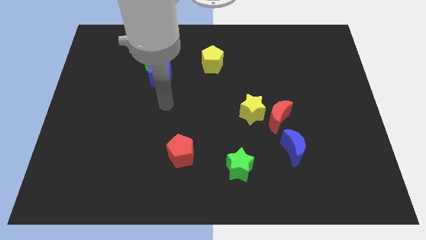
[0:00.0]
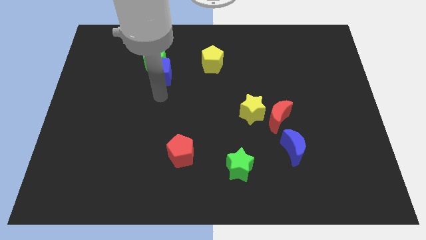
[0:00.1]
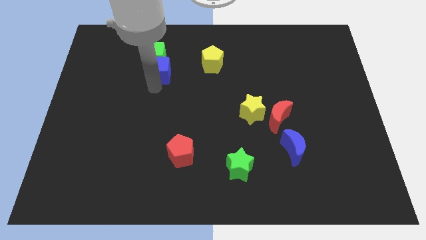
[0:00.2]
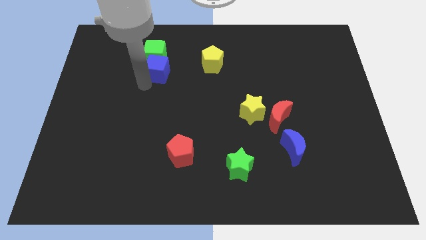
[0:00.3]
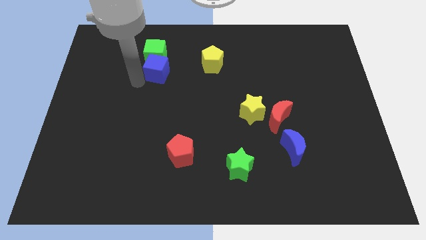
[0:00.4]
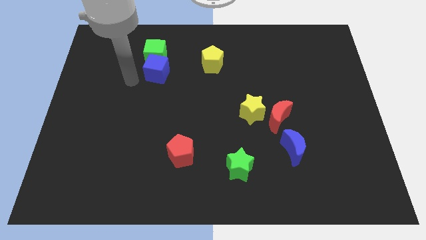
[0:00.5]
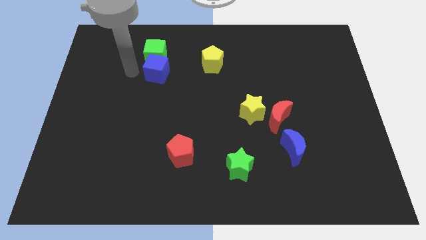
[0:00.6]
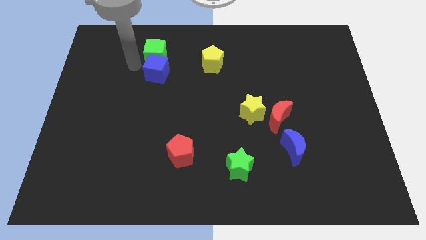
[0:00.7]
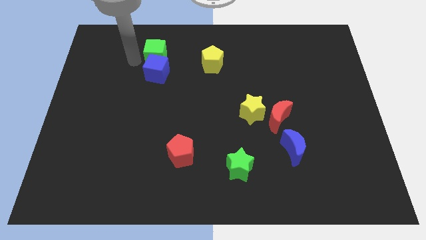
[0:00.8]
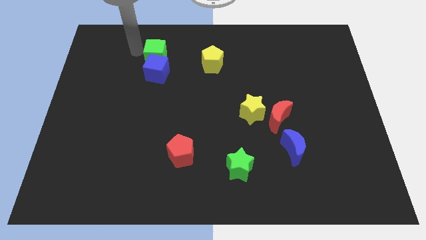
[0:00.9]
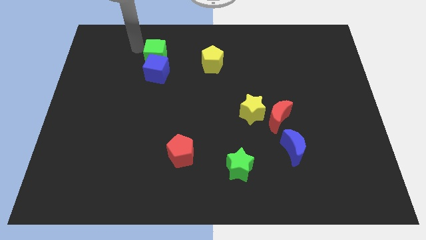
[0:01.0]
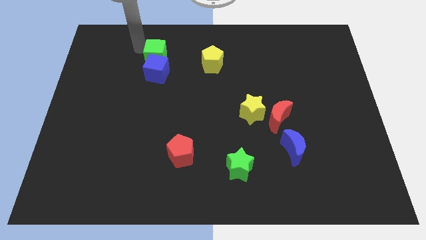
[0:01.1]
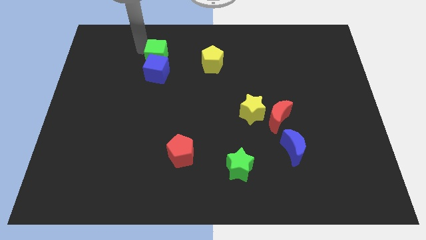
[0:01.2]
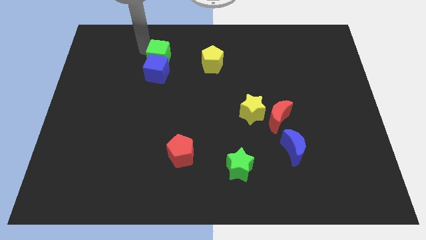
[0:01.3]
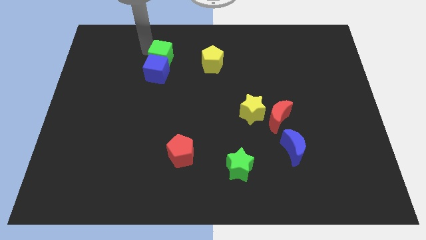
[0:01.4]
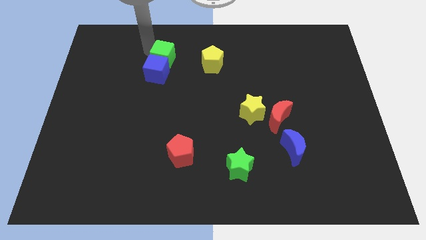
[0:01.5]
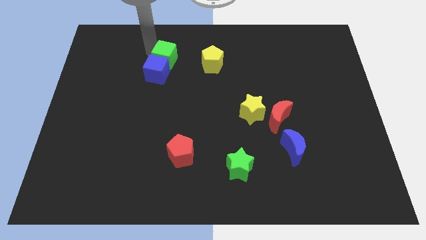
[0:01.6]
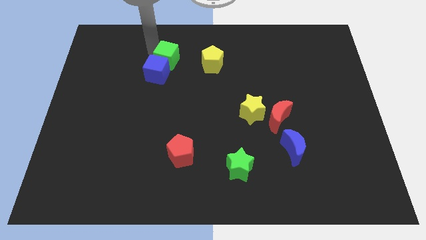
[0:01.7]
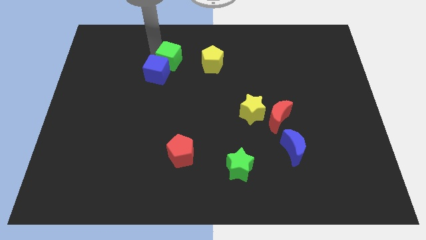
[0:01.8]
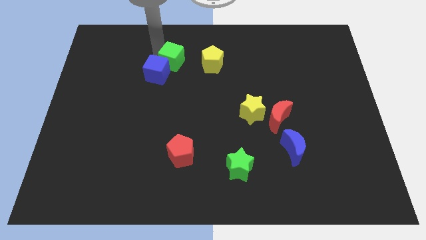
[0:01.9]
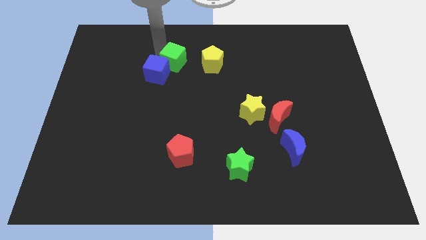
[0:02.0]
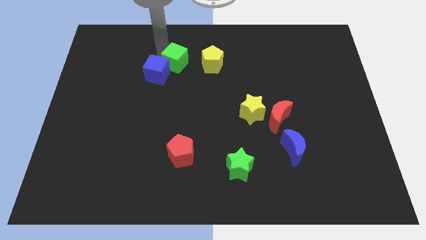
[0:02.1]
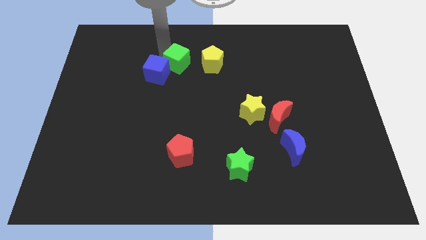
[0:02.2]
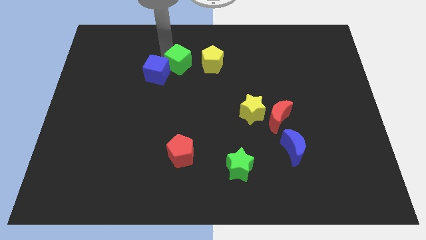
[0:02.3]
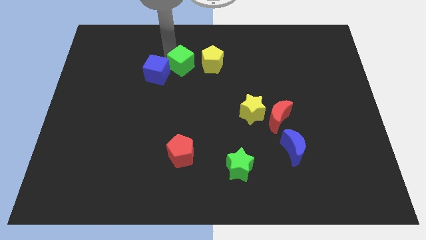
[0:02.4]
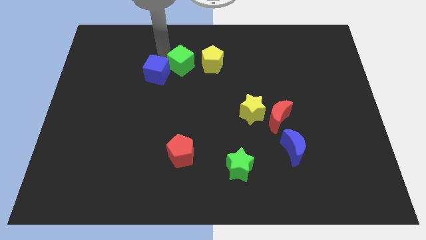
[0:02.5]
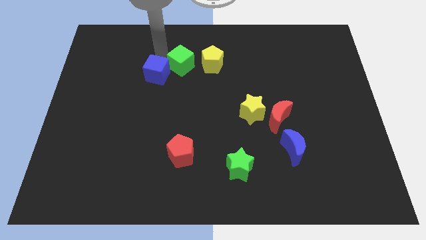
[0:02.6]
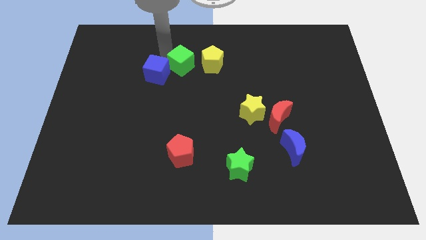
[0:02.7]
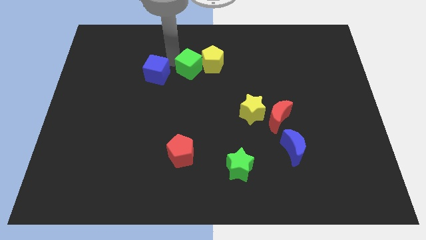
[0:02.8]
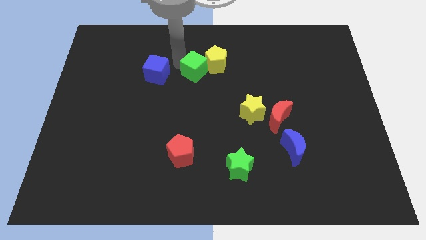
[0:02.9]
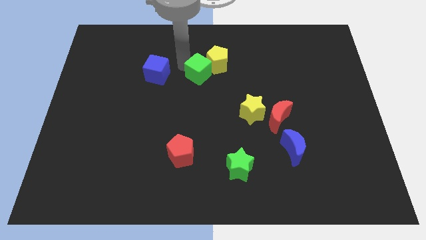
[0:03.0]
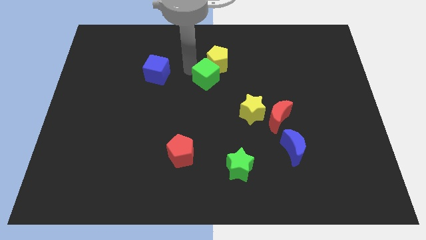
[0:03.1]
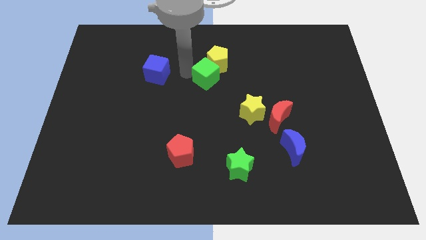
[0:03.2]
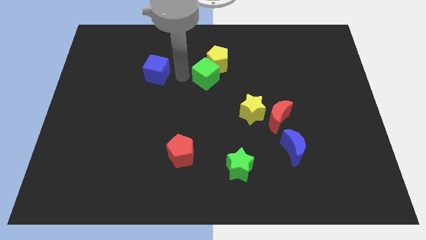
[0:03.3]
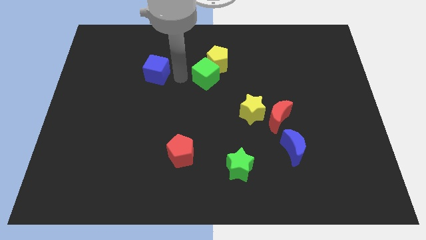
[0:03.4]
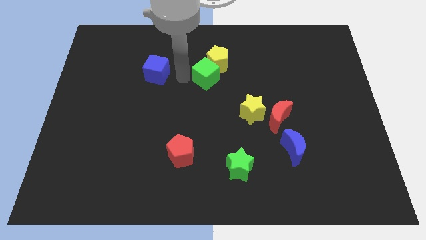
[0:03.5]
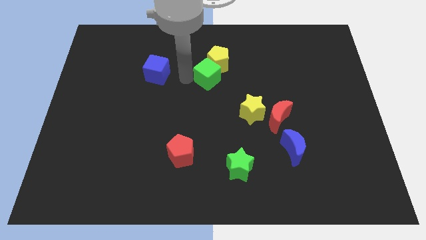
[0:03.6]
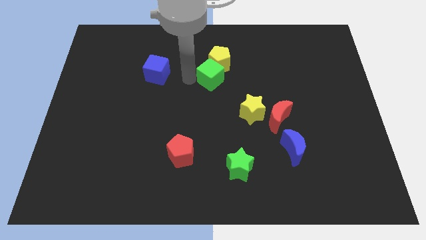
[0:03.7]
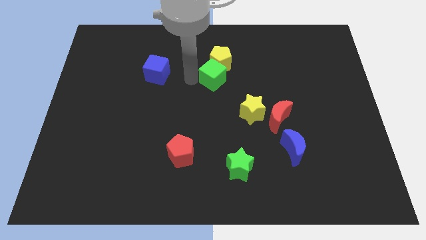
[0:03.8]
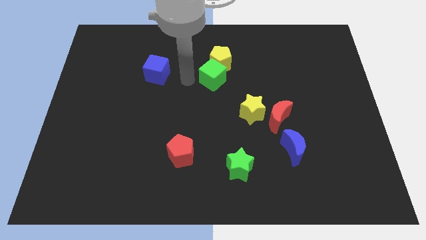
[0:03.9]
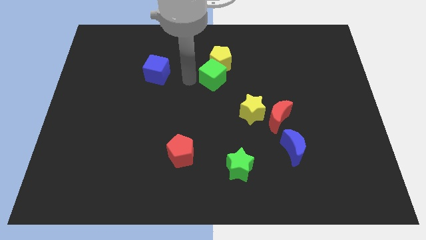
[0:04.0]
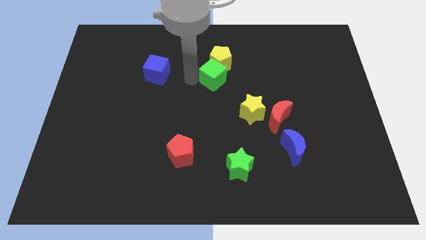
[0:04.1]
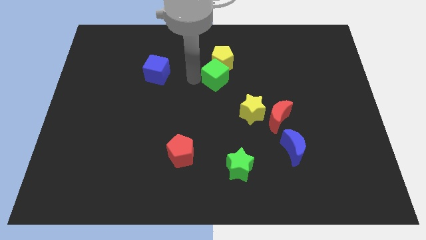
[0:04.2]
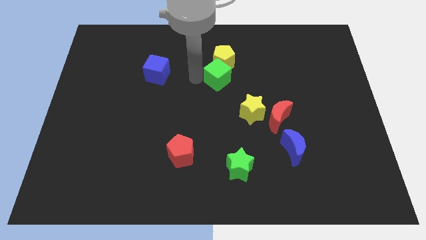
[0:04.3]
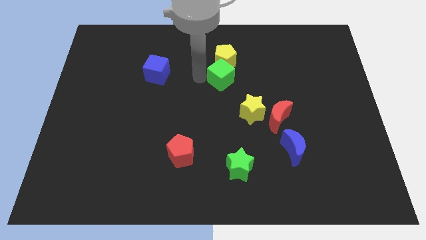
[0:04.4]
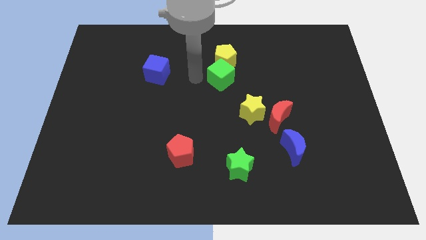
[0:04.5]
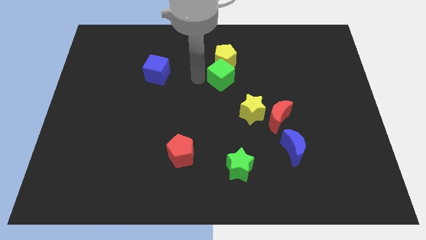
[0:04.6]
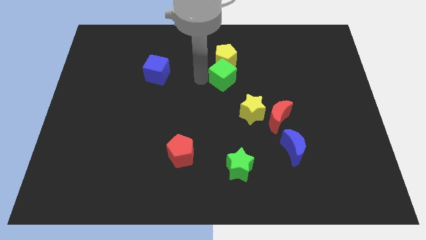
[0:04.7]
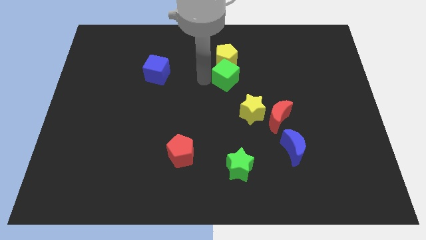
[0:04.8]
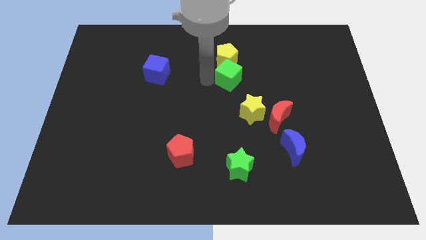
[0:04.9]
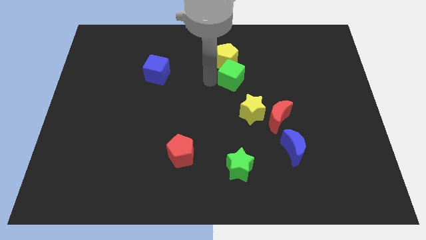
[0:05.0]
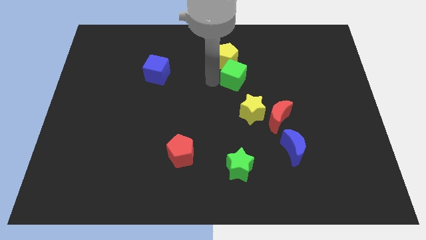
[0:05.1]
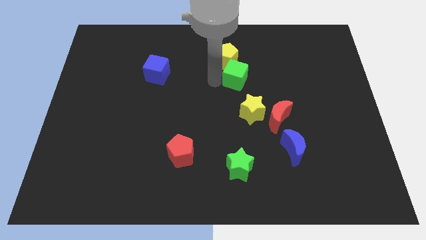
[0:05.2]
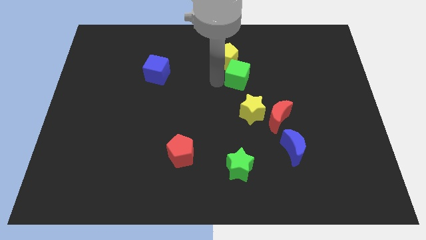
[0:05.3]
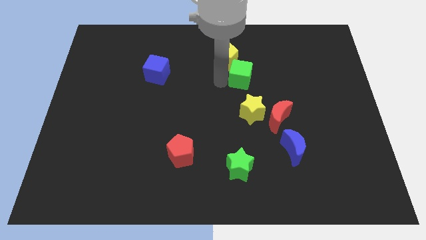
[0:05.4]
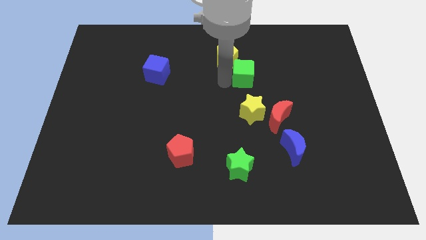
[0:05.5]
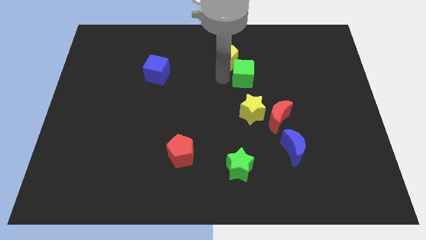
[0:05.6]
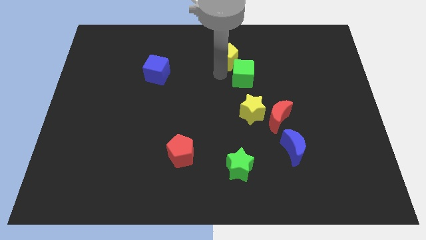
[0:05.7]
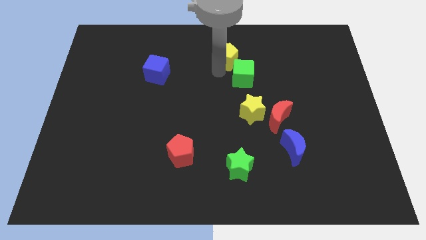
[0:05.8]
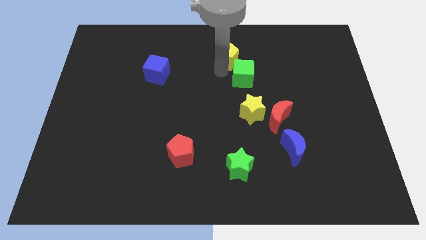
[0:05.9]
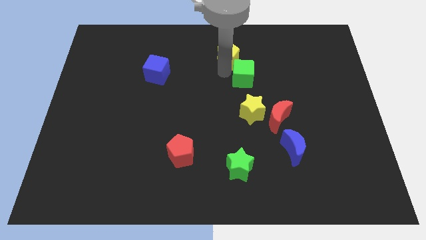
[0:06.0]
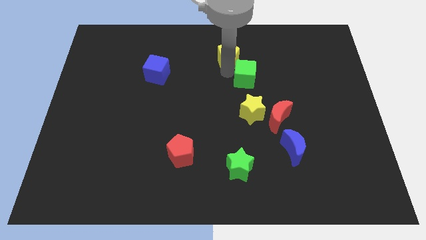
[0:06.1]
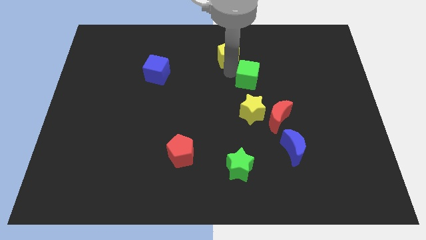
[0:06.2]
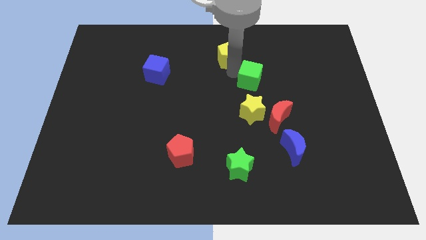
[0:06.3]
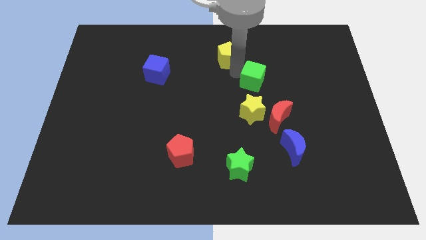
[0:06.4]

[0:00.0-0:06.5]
push the green cube above the red moon
